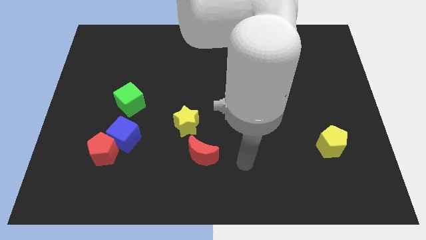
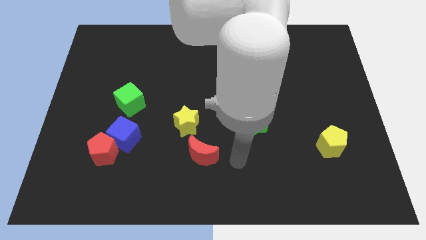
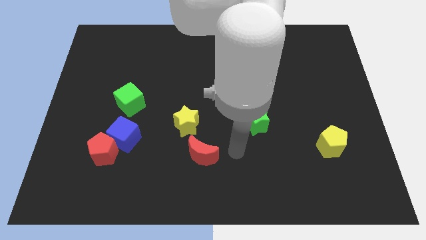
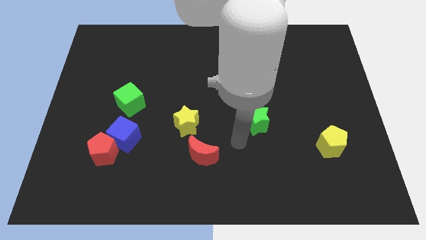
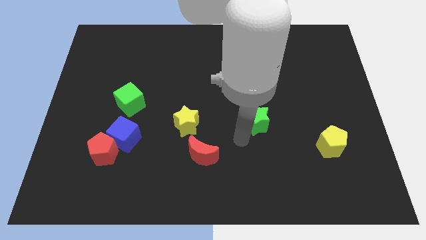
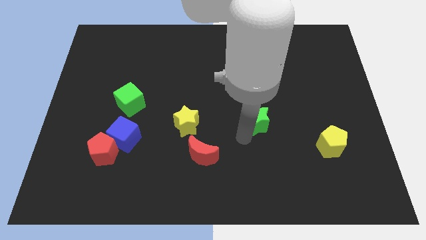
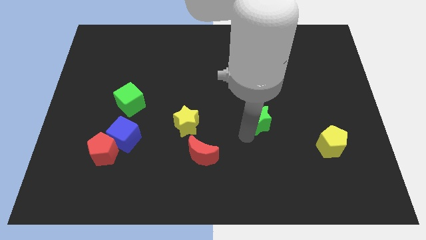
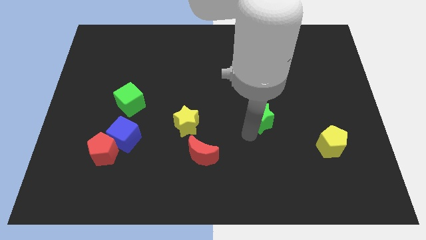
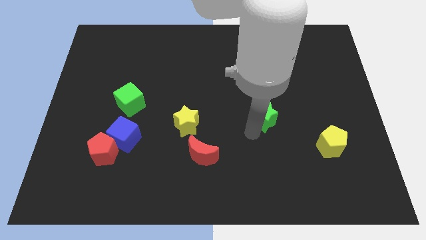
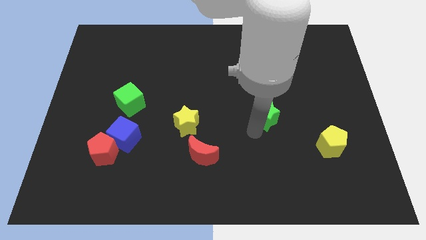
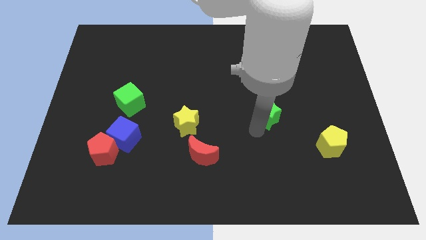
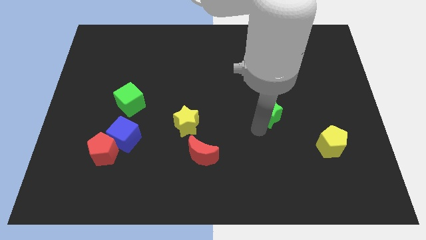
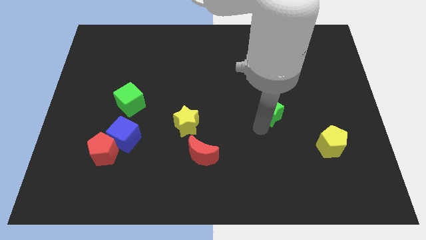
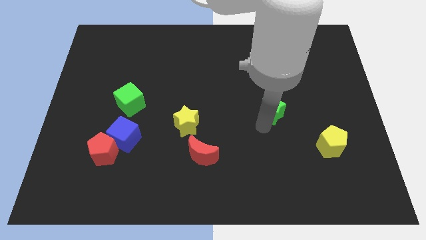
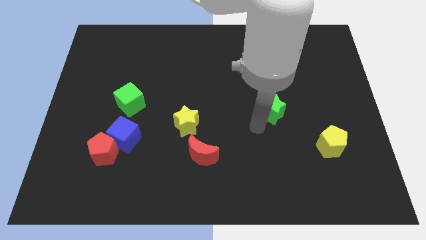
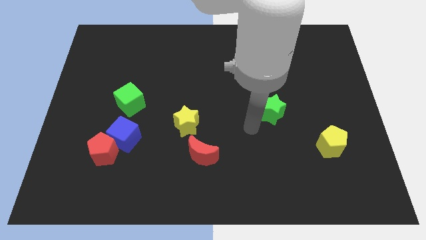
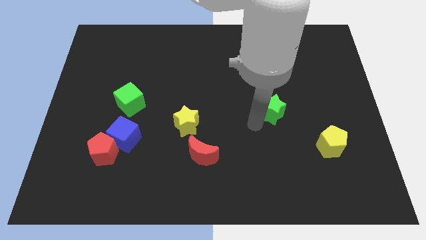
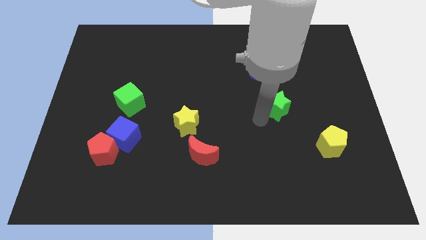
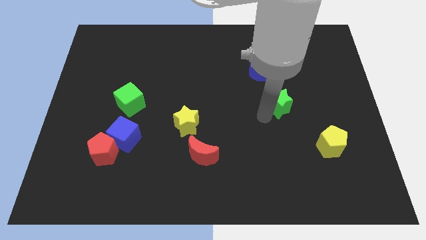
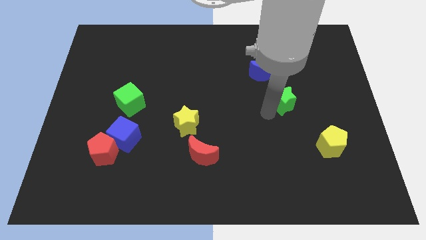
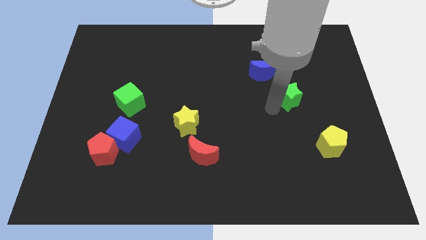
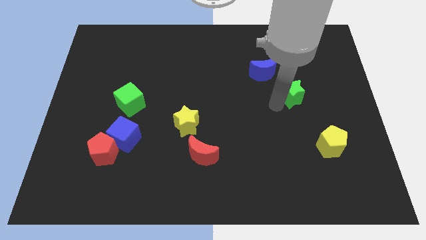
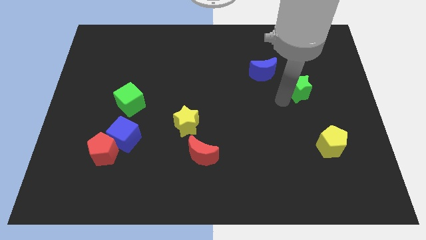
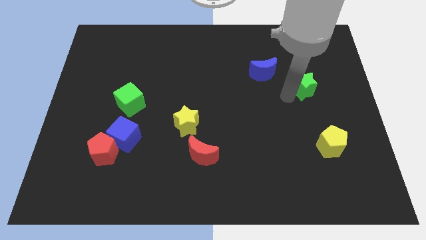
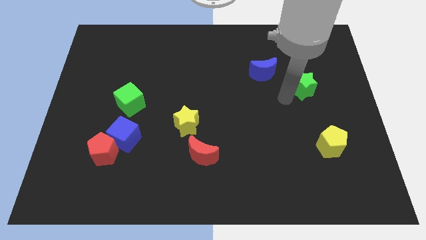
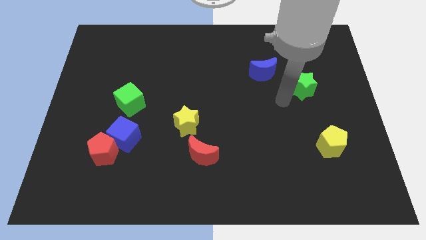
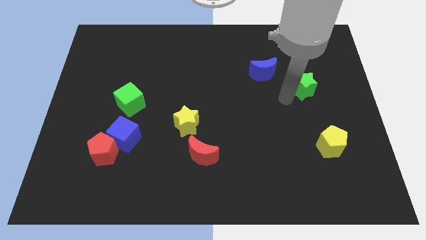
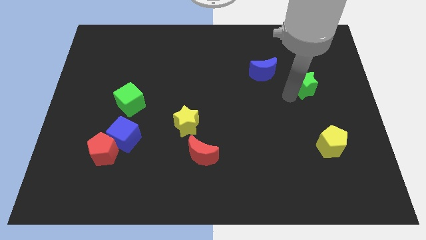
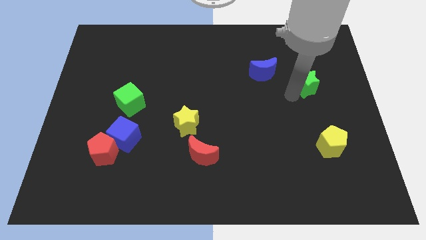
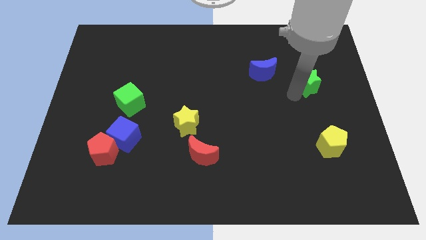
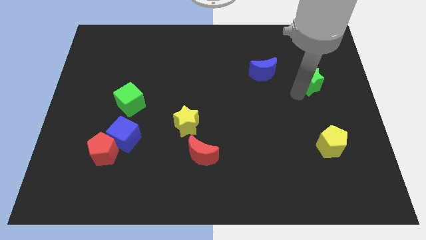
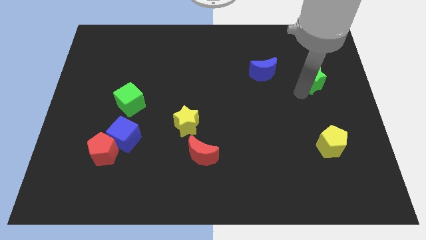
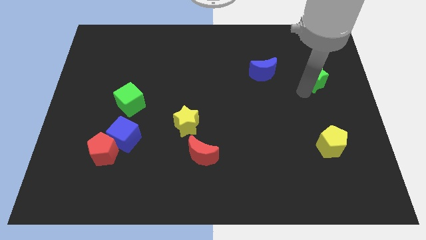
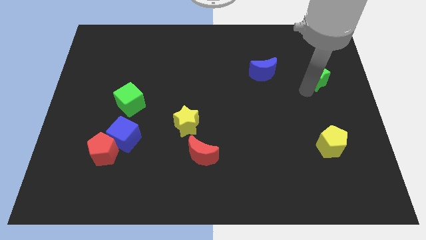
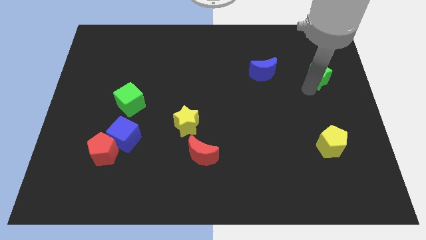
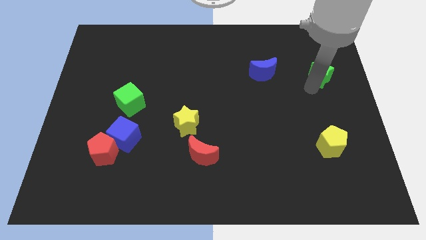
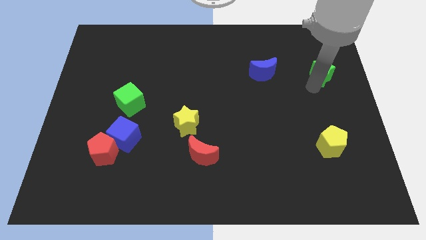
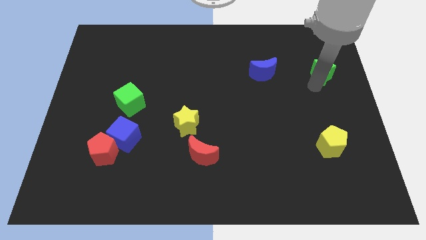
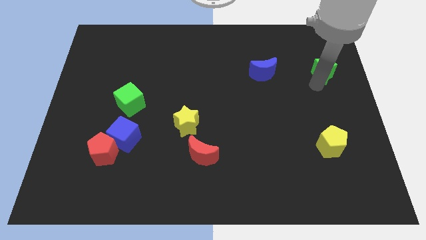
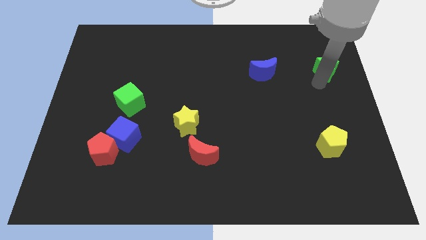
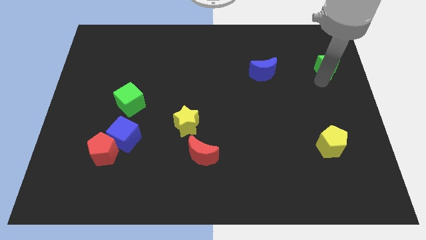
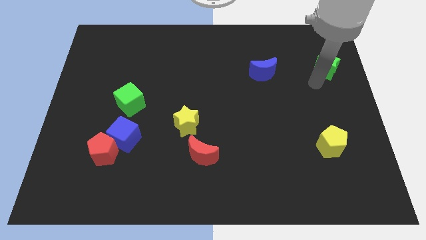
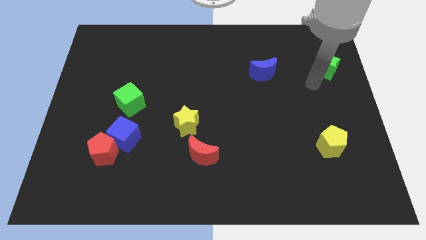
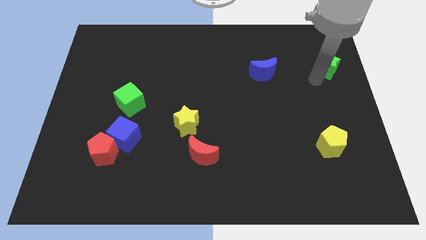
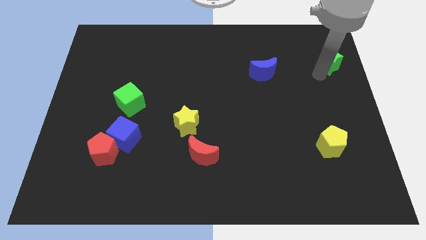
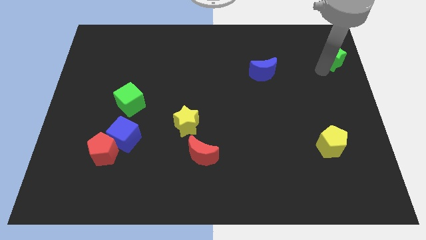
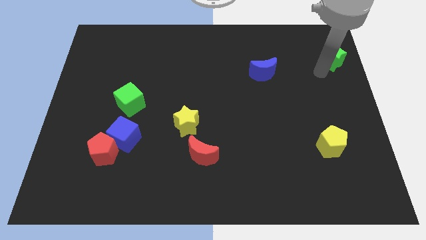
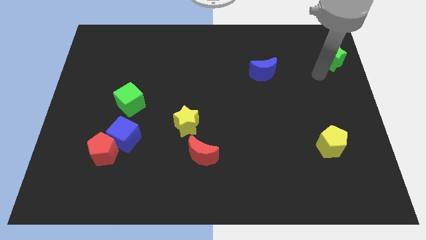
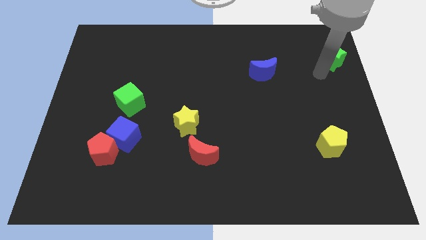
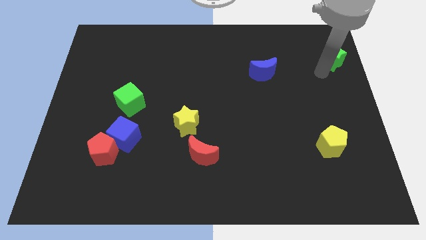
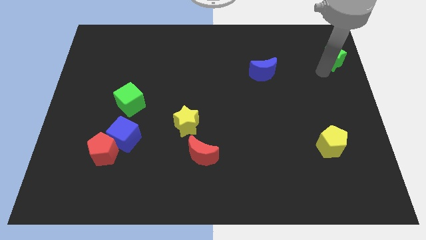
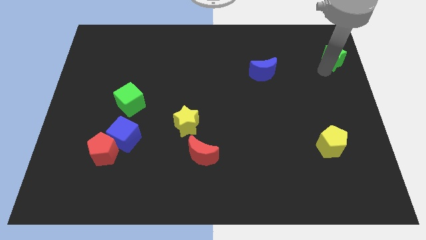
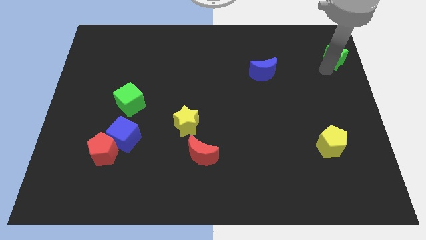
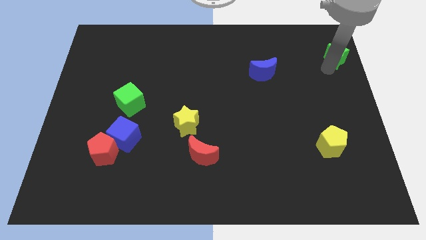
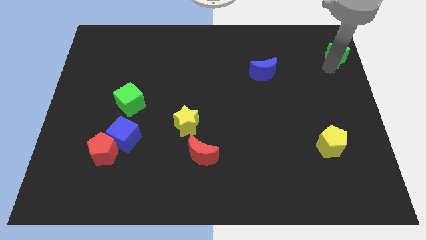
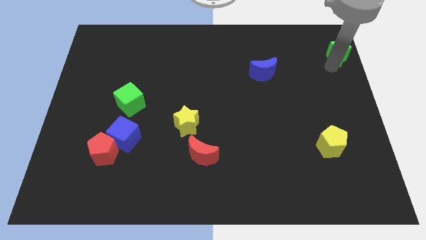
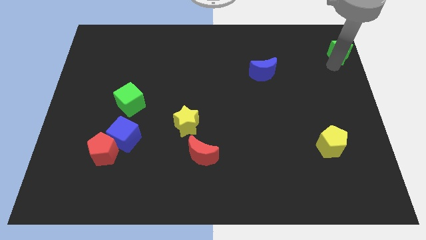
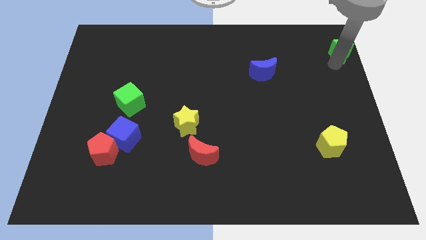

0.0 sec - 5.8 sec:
move the green star to the top right

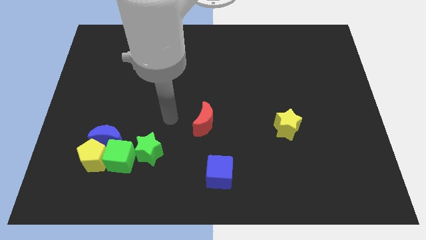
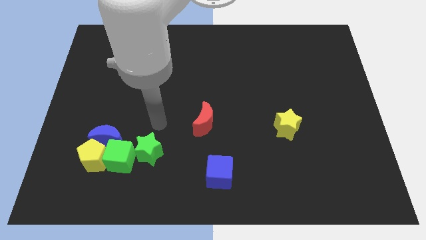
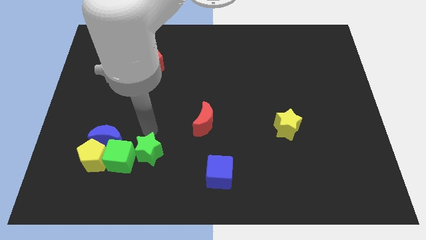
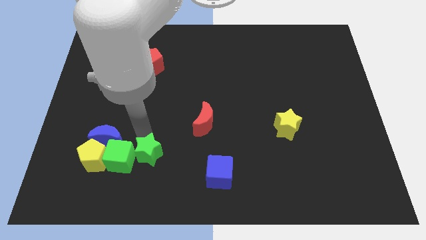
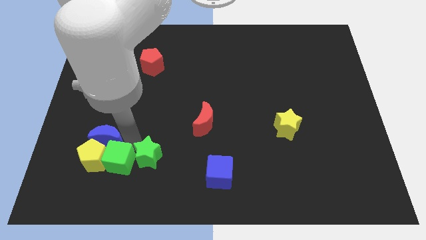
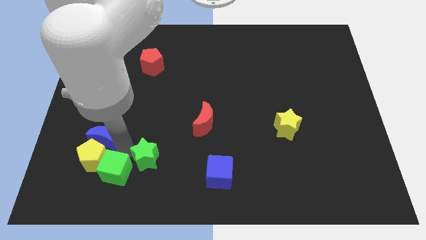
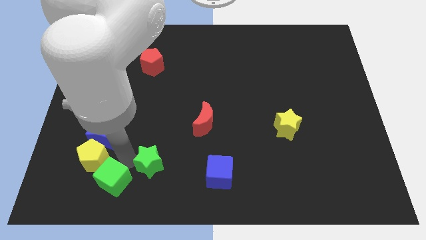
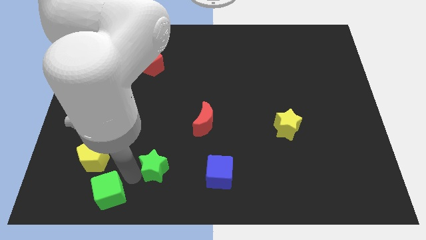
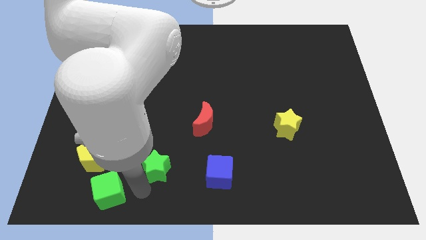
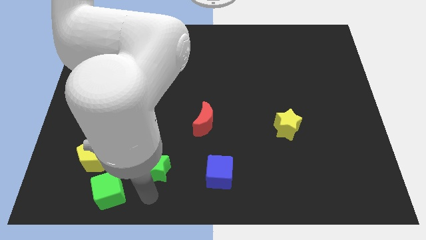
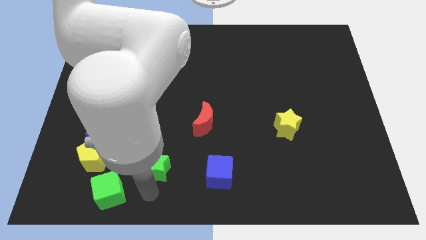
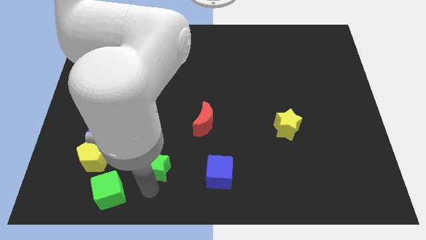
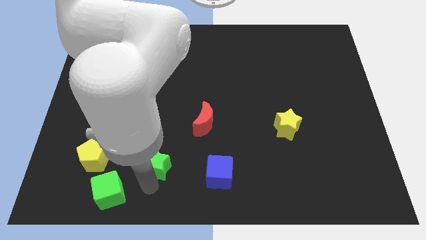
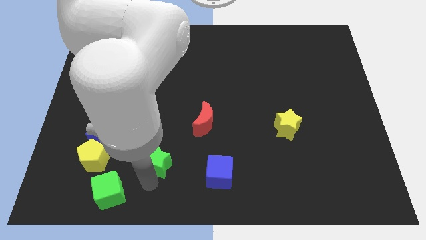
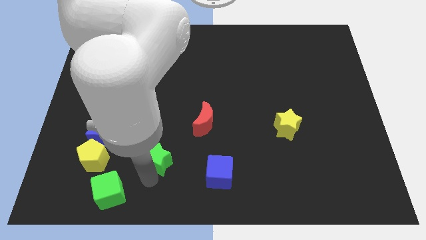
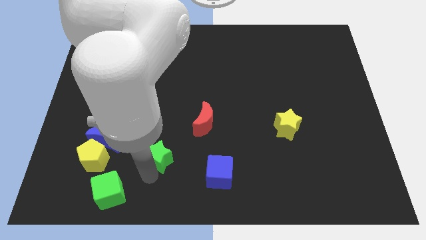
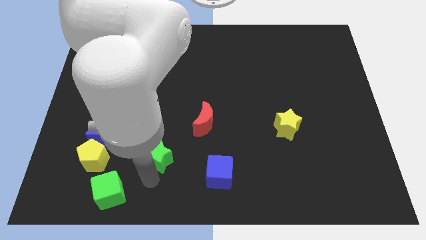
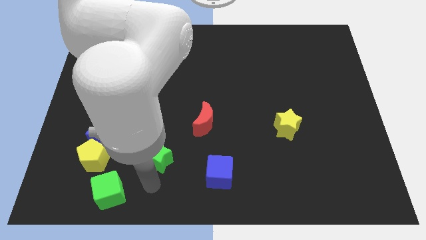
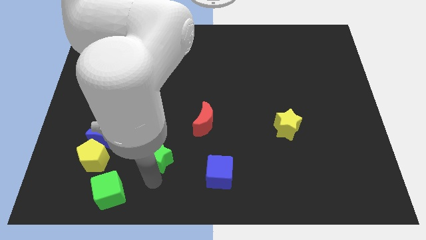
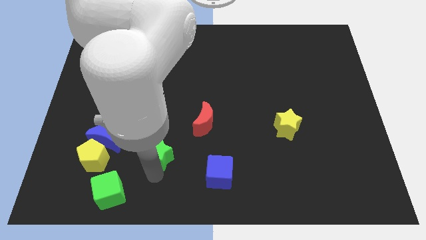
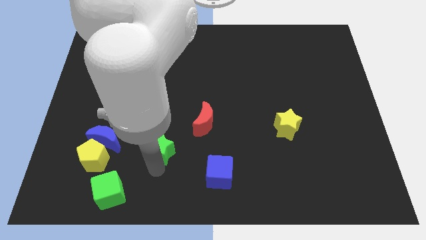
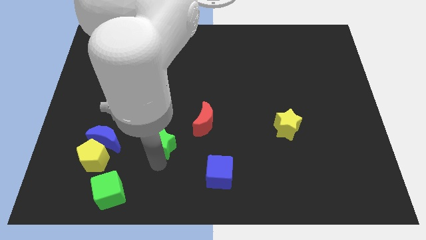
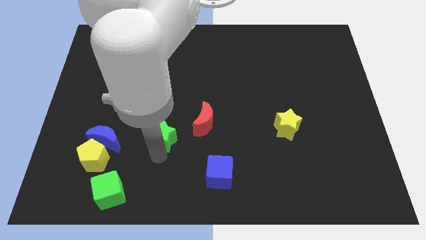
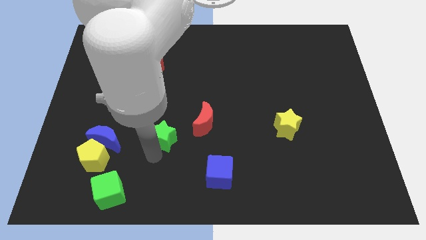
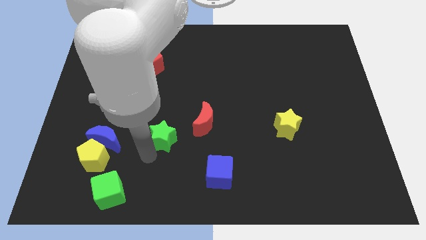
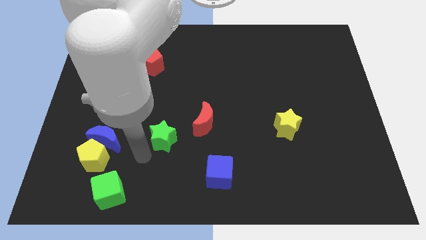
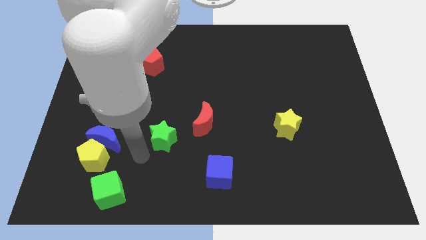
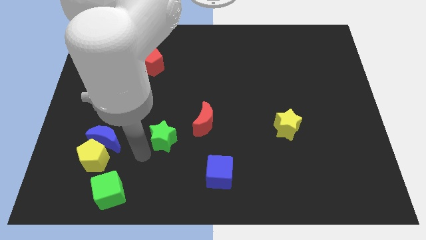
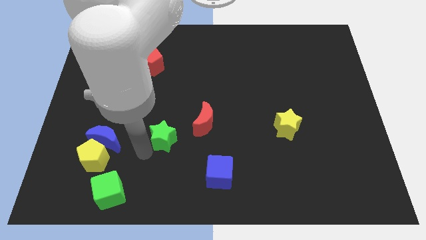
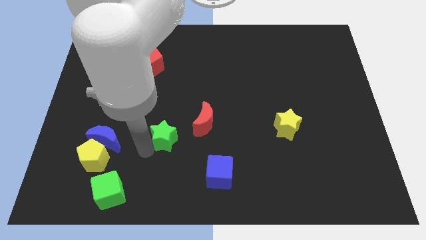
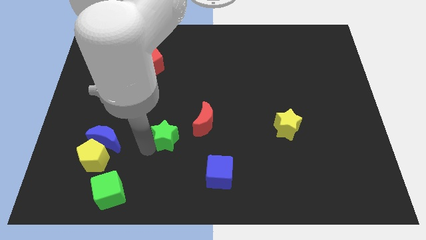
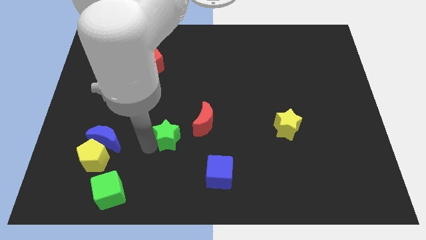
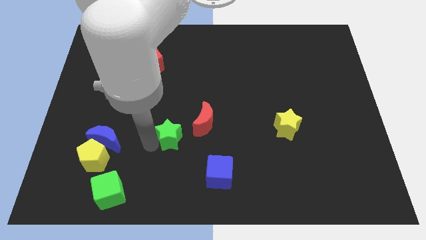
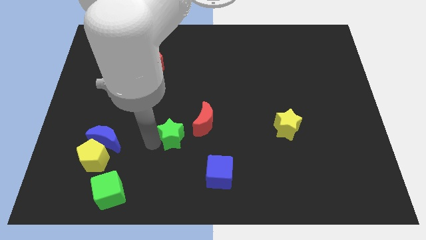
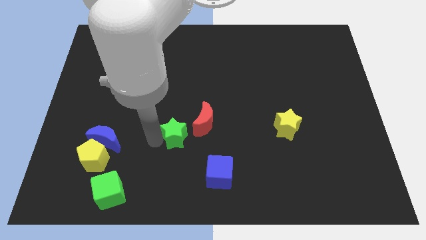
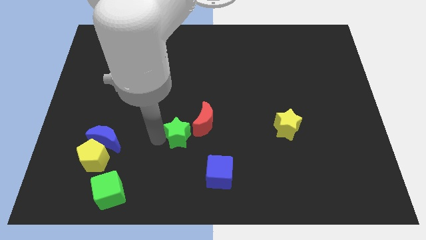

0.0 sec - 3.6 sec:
slide the green star to the middle
